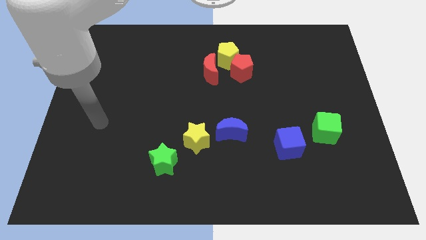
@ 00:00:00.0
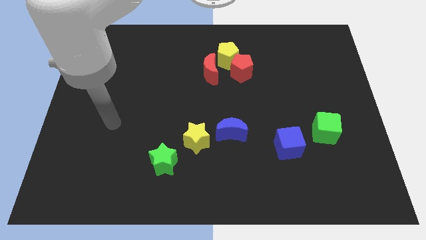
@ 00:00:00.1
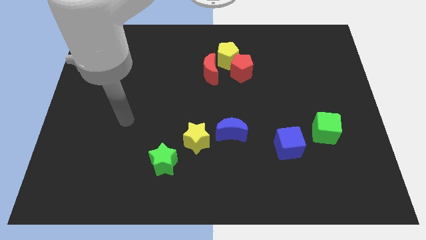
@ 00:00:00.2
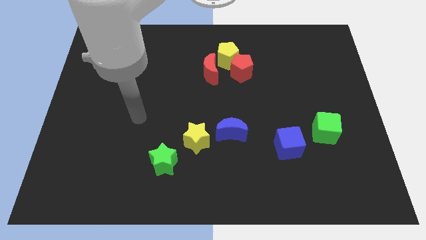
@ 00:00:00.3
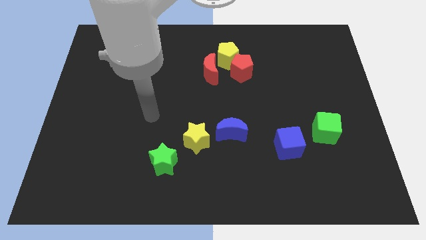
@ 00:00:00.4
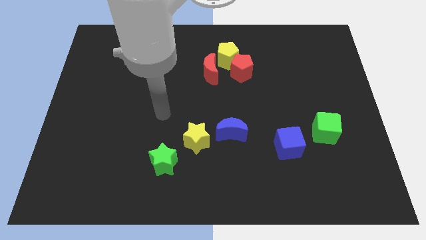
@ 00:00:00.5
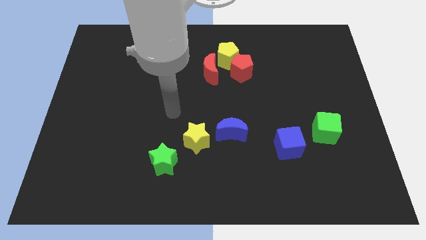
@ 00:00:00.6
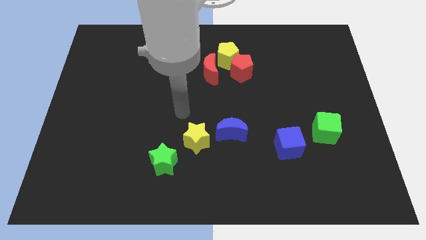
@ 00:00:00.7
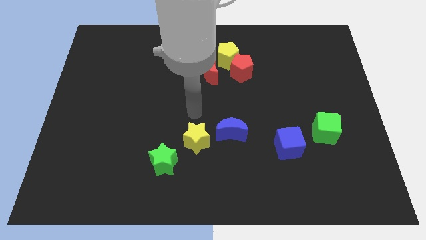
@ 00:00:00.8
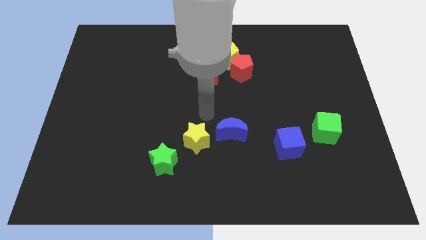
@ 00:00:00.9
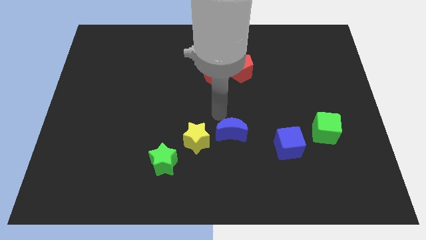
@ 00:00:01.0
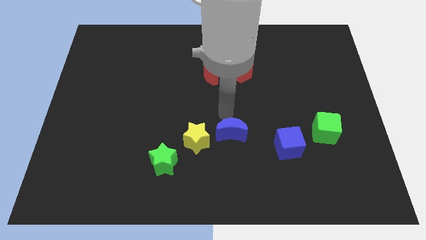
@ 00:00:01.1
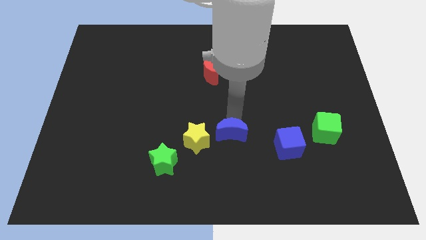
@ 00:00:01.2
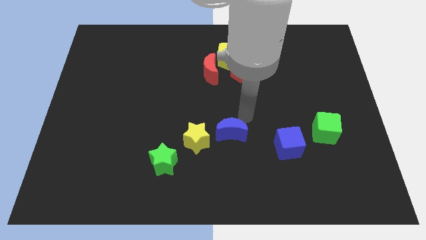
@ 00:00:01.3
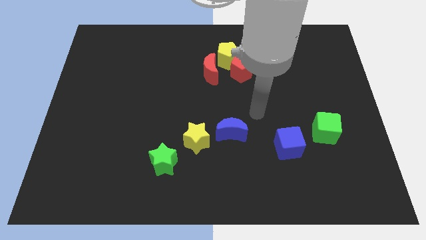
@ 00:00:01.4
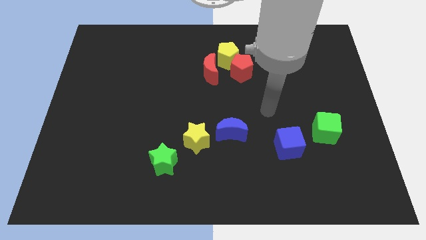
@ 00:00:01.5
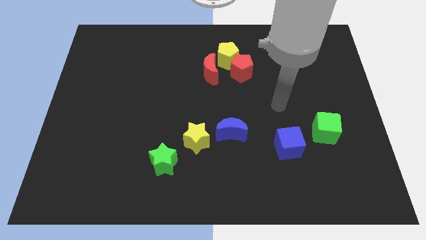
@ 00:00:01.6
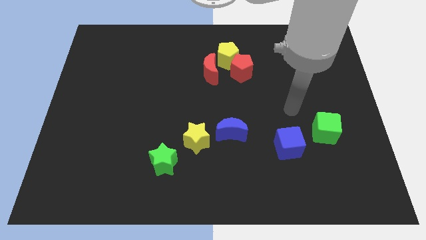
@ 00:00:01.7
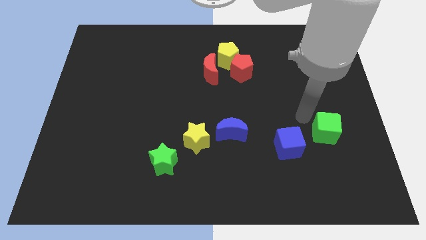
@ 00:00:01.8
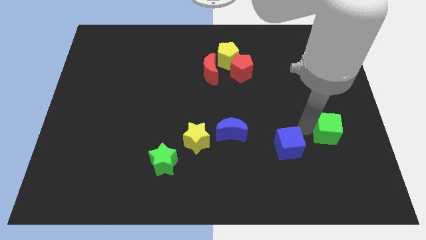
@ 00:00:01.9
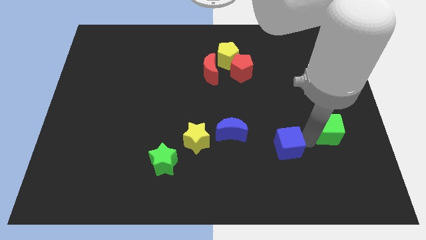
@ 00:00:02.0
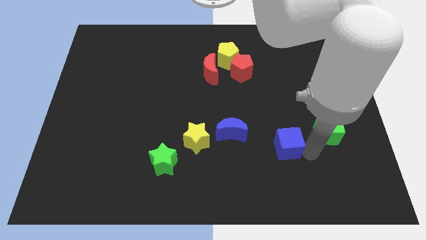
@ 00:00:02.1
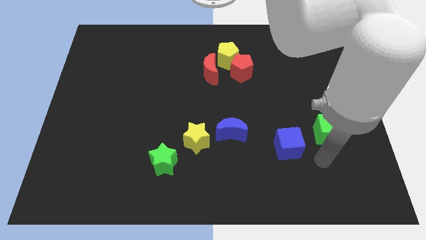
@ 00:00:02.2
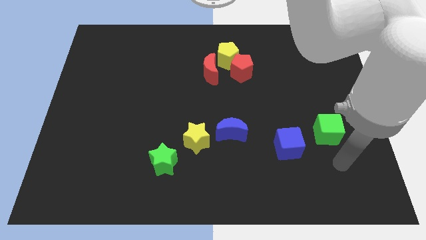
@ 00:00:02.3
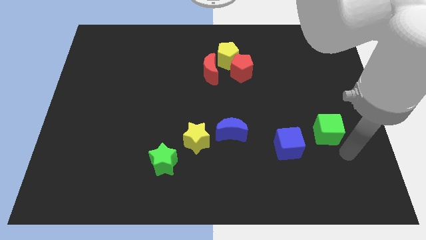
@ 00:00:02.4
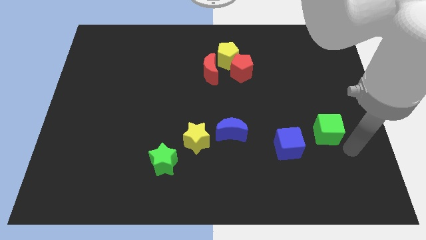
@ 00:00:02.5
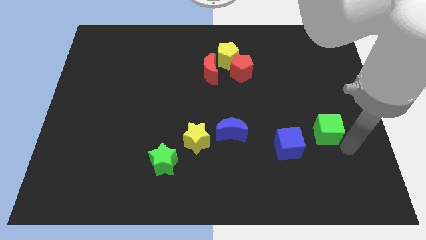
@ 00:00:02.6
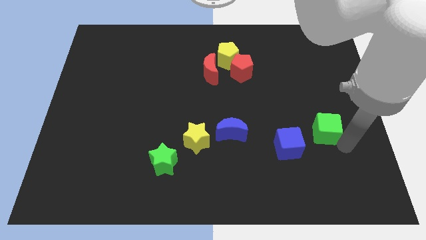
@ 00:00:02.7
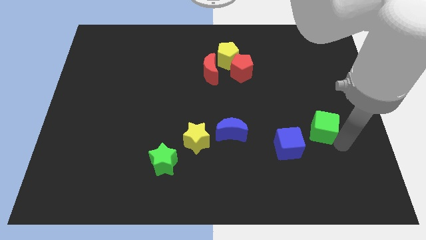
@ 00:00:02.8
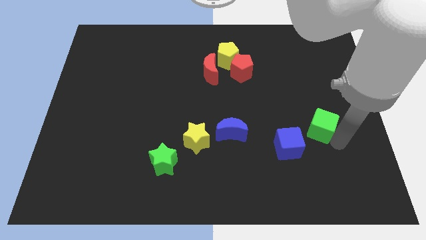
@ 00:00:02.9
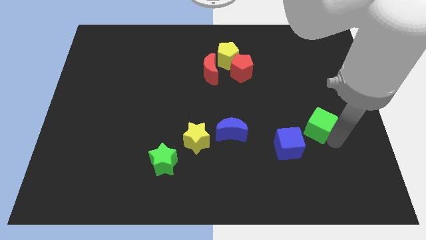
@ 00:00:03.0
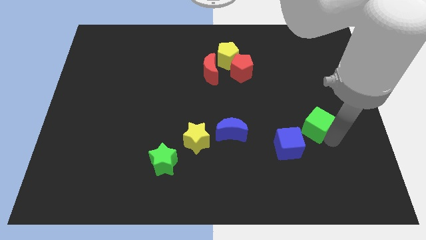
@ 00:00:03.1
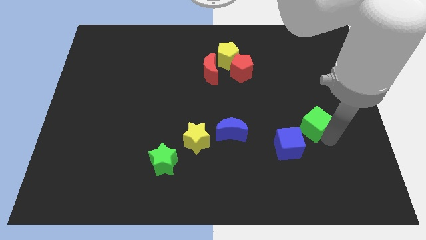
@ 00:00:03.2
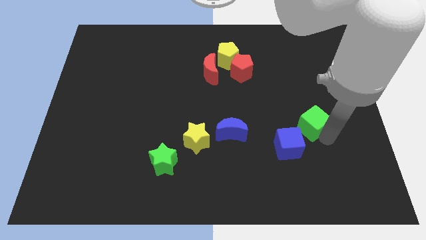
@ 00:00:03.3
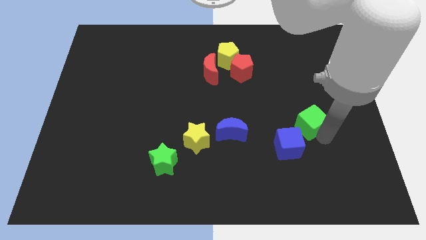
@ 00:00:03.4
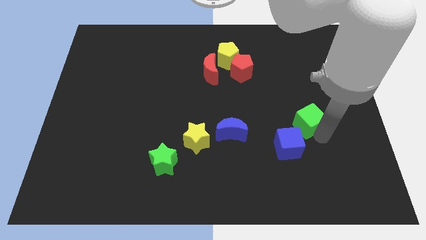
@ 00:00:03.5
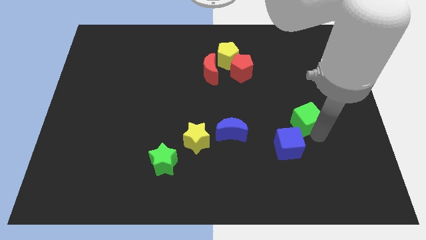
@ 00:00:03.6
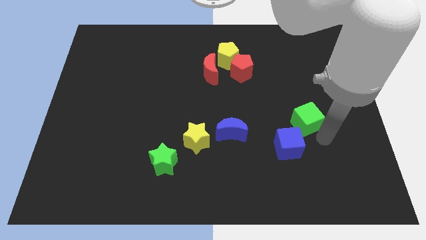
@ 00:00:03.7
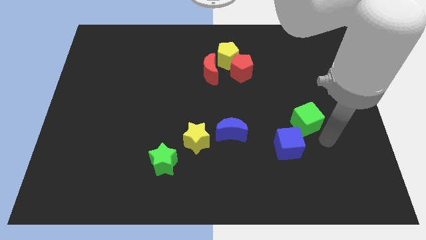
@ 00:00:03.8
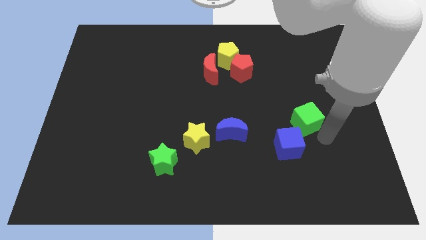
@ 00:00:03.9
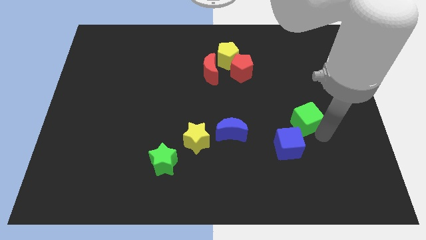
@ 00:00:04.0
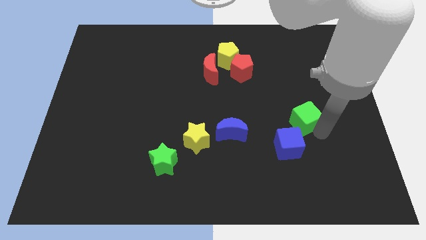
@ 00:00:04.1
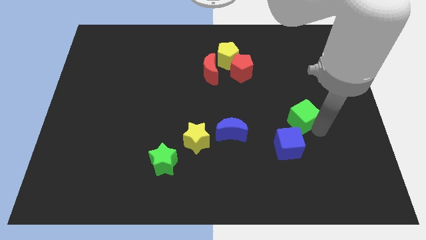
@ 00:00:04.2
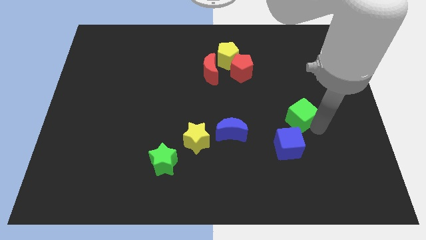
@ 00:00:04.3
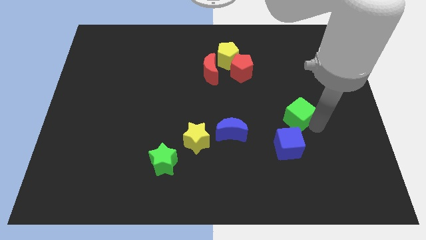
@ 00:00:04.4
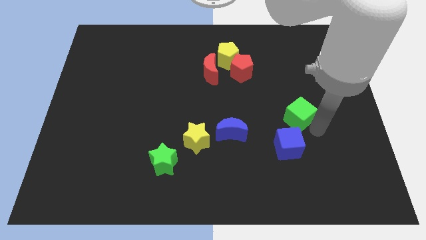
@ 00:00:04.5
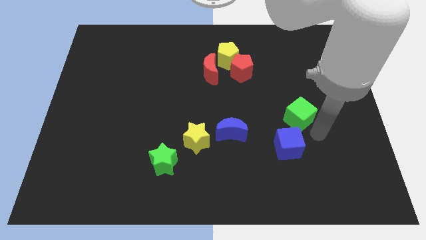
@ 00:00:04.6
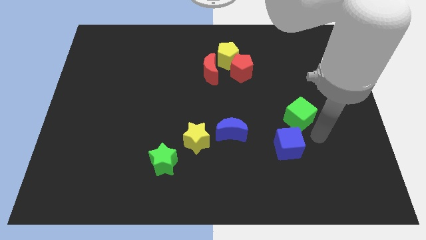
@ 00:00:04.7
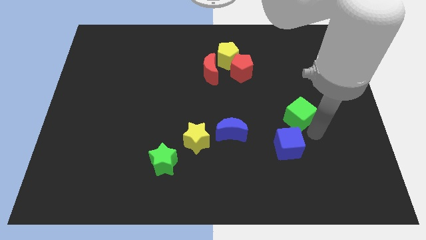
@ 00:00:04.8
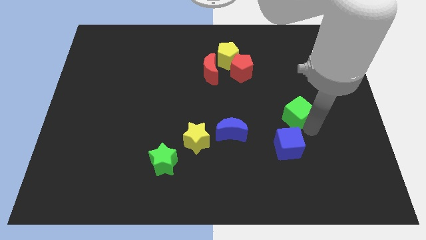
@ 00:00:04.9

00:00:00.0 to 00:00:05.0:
slide the green cube up and then left a bit

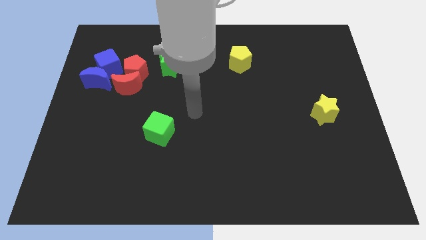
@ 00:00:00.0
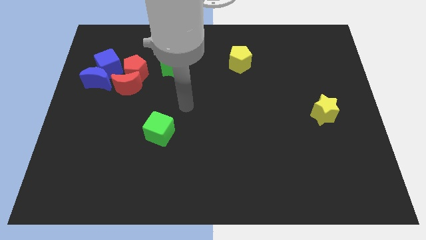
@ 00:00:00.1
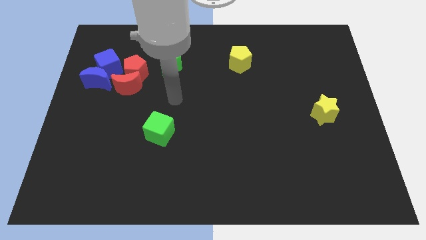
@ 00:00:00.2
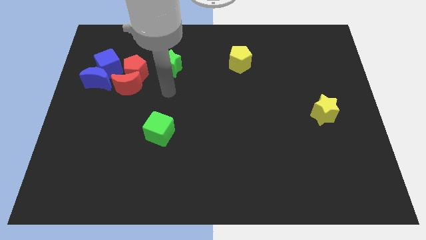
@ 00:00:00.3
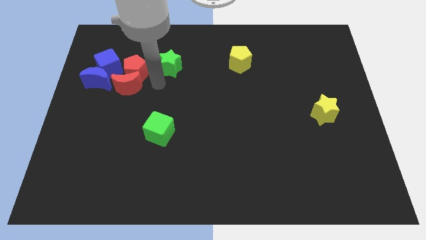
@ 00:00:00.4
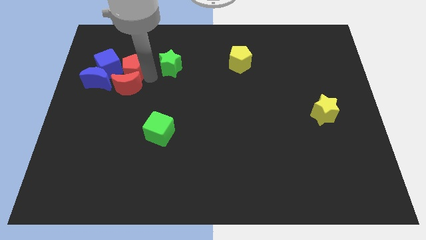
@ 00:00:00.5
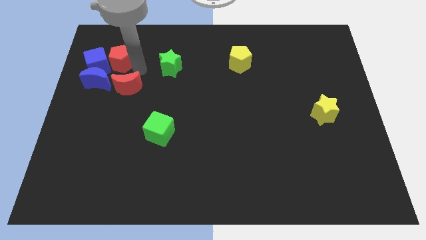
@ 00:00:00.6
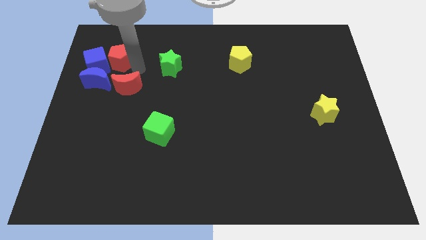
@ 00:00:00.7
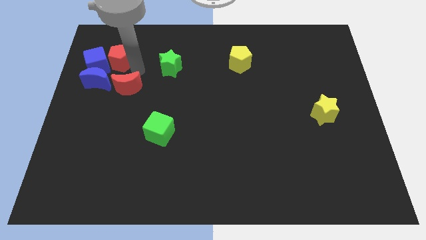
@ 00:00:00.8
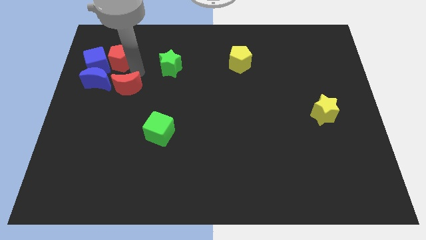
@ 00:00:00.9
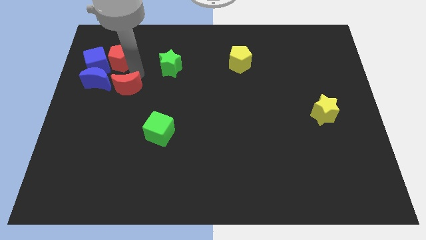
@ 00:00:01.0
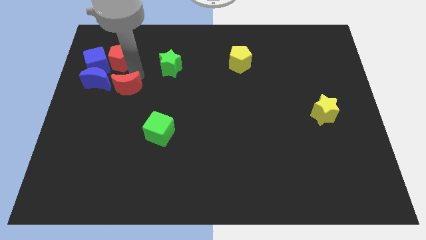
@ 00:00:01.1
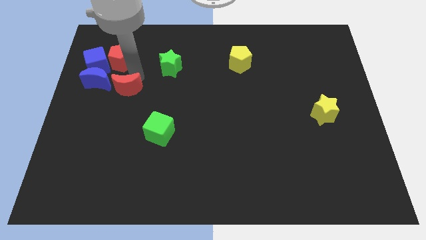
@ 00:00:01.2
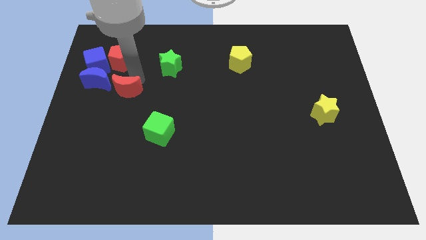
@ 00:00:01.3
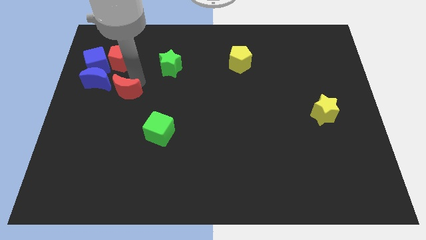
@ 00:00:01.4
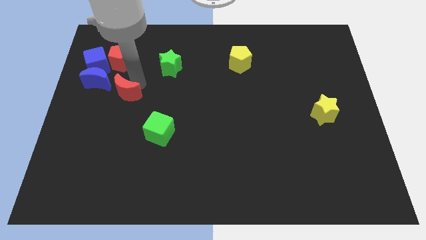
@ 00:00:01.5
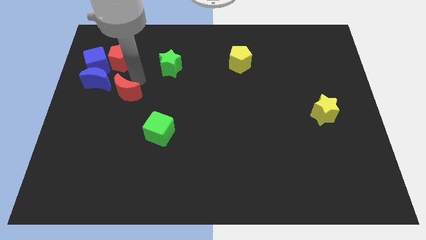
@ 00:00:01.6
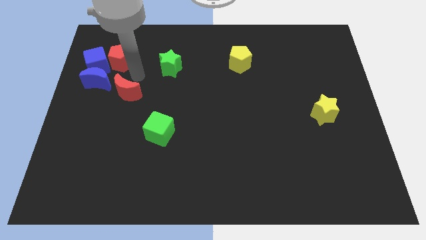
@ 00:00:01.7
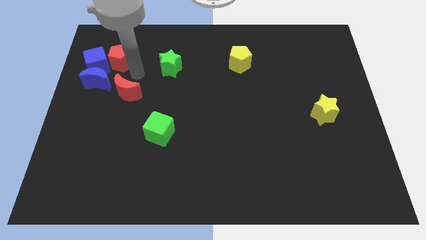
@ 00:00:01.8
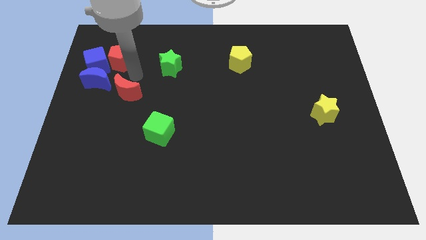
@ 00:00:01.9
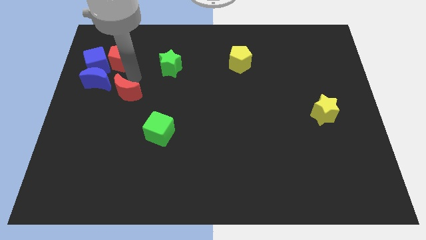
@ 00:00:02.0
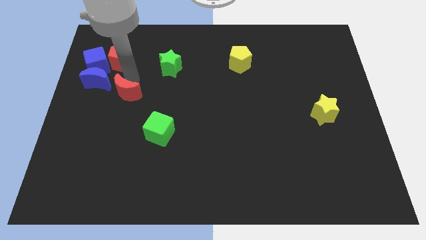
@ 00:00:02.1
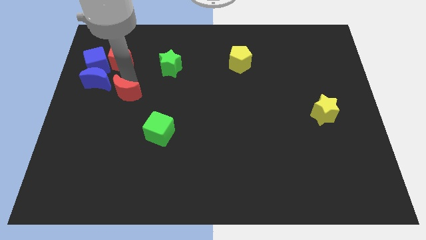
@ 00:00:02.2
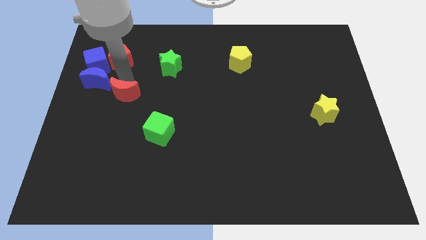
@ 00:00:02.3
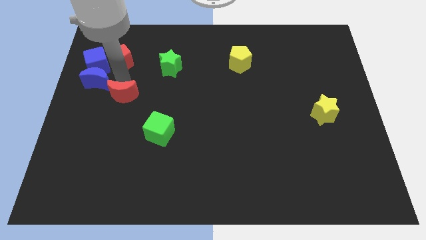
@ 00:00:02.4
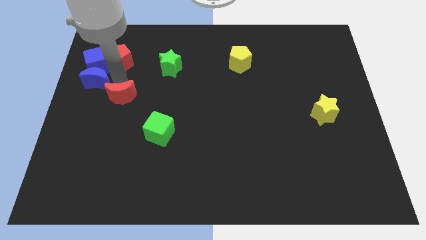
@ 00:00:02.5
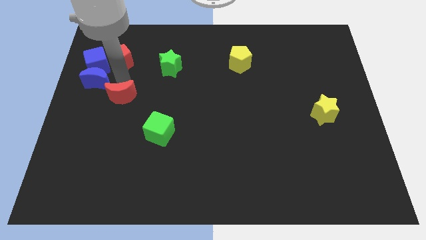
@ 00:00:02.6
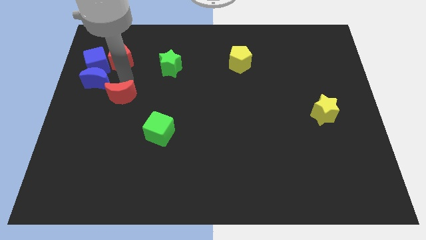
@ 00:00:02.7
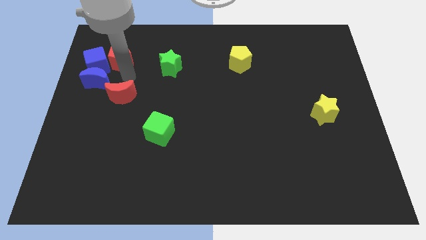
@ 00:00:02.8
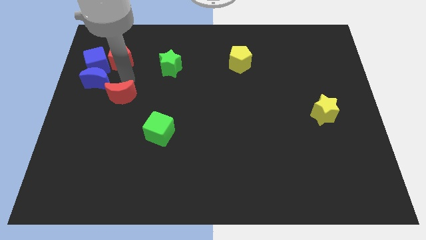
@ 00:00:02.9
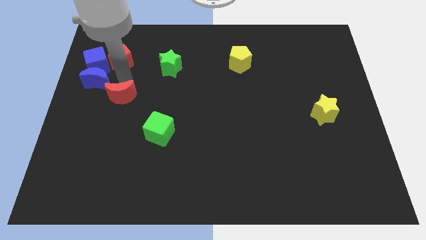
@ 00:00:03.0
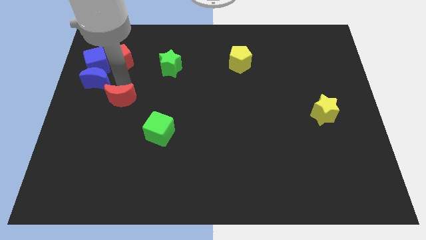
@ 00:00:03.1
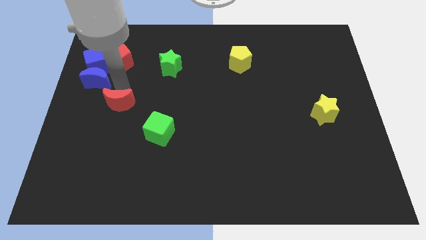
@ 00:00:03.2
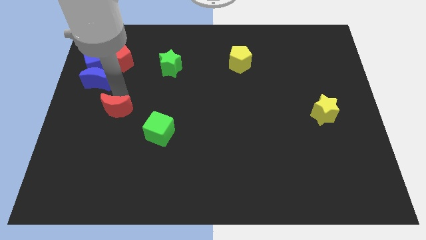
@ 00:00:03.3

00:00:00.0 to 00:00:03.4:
slightly slide the red moon downwards
